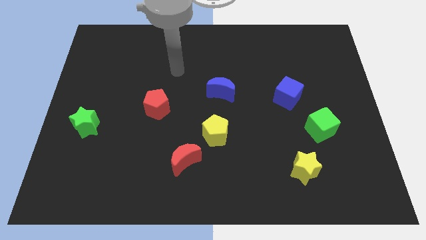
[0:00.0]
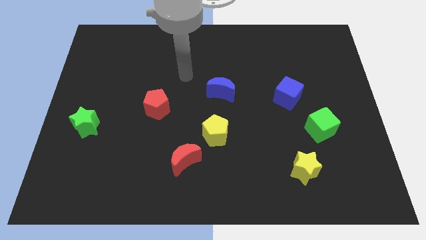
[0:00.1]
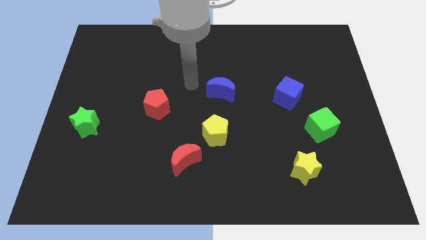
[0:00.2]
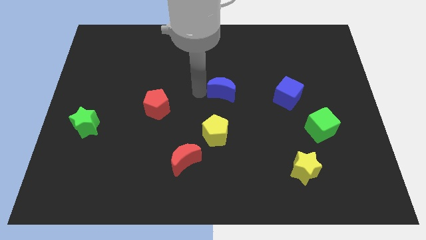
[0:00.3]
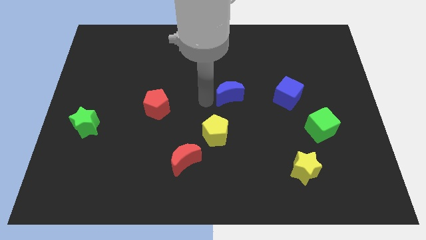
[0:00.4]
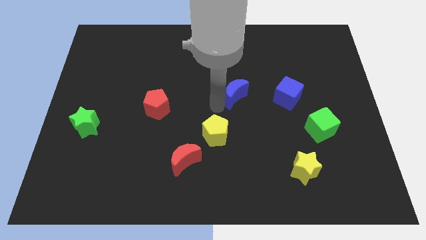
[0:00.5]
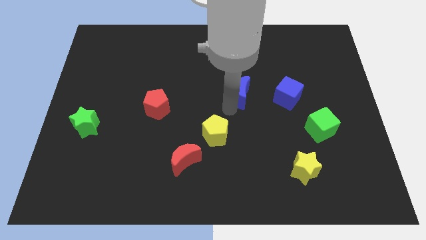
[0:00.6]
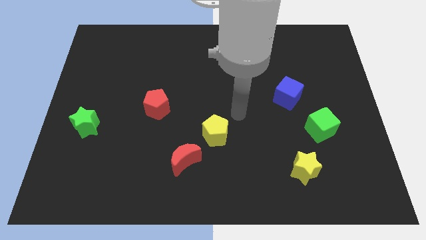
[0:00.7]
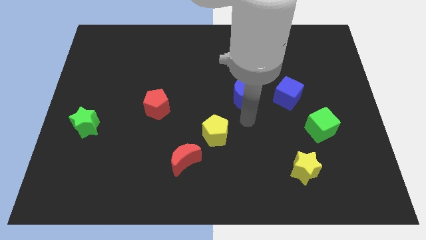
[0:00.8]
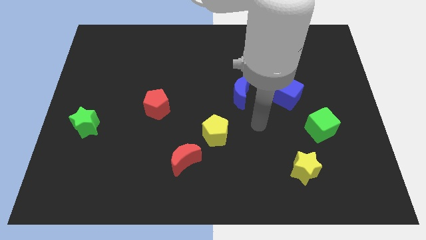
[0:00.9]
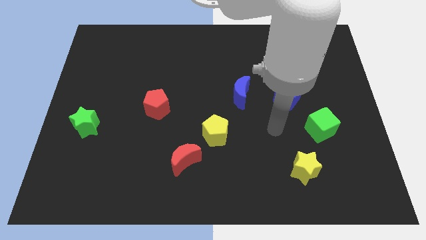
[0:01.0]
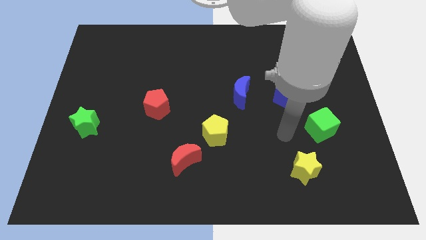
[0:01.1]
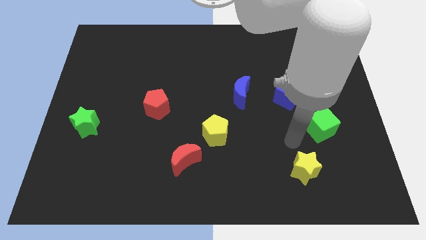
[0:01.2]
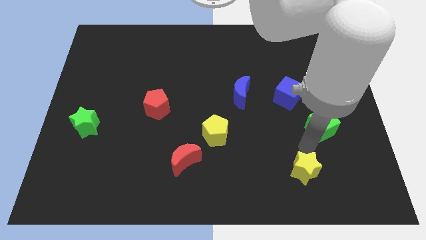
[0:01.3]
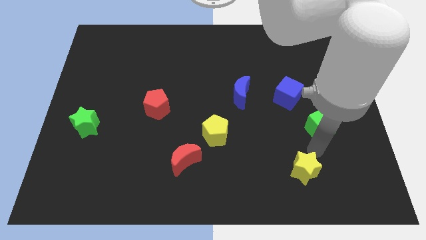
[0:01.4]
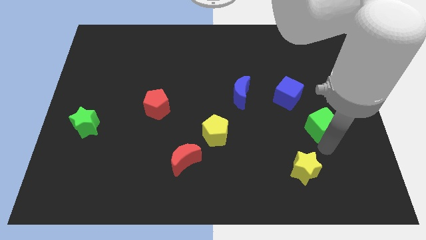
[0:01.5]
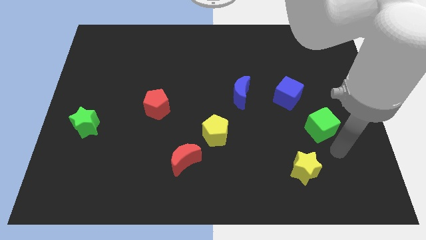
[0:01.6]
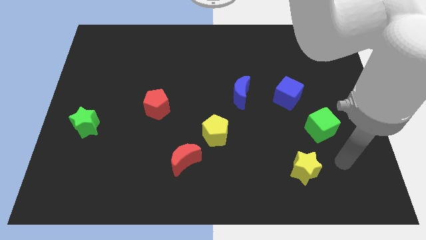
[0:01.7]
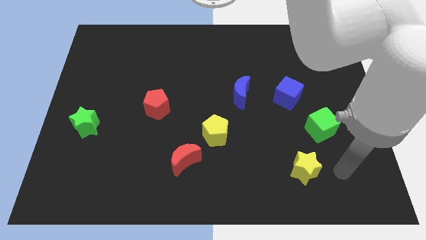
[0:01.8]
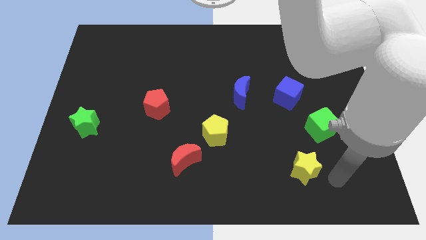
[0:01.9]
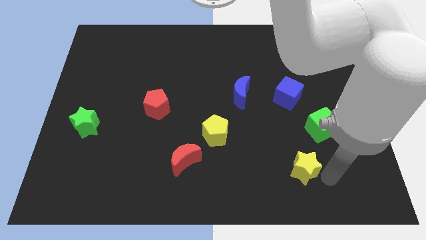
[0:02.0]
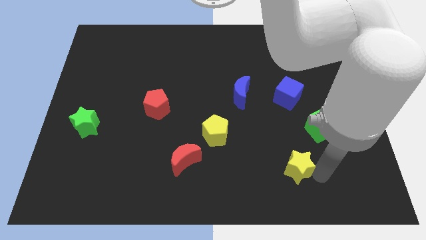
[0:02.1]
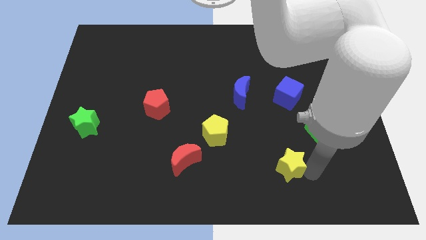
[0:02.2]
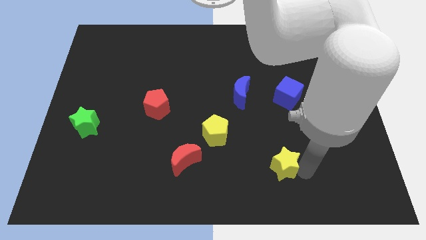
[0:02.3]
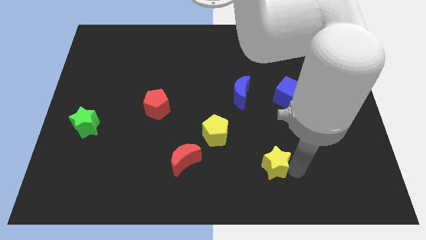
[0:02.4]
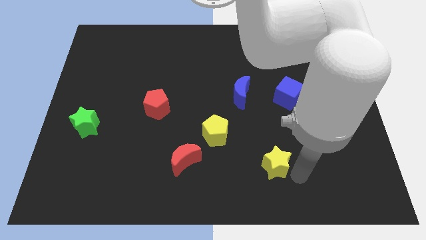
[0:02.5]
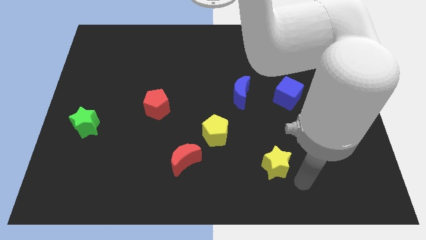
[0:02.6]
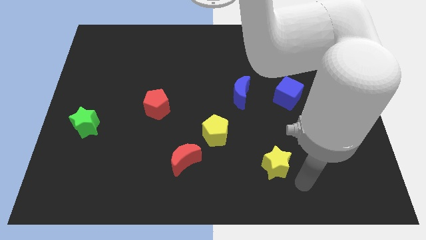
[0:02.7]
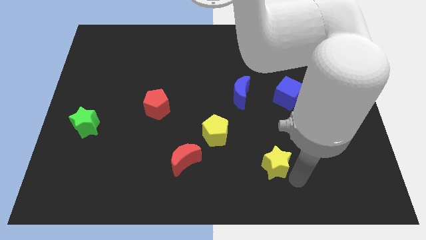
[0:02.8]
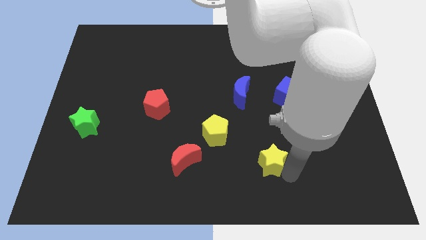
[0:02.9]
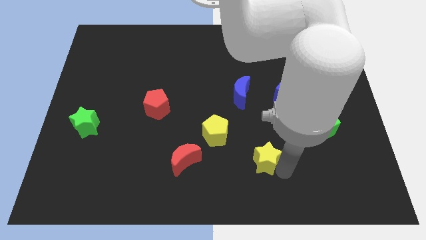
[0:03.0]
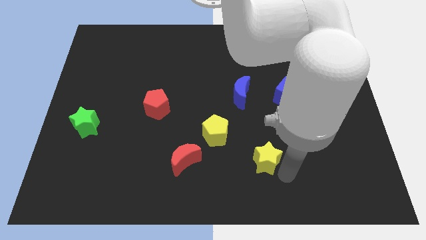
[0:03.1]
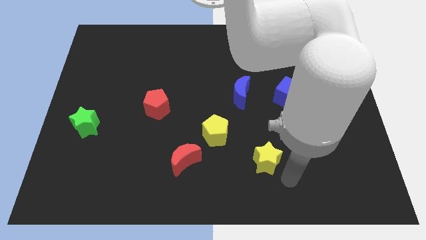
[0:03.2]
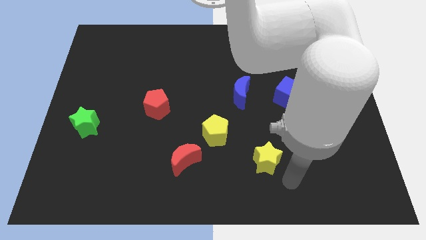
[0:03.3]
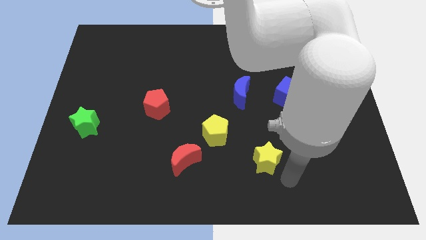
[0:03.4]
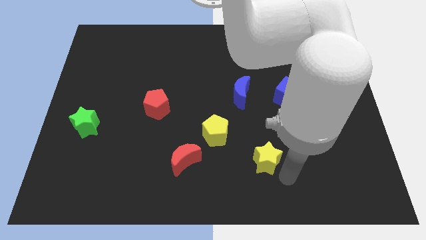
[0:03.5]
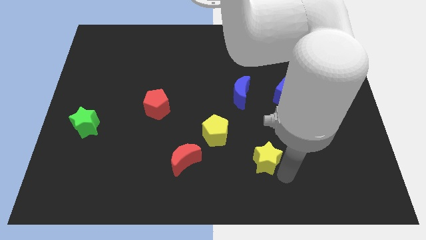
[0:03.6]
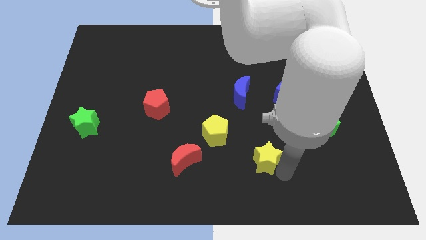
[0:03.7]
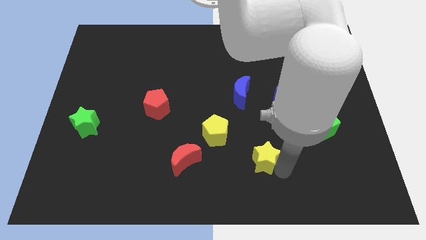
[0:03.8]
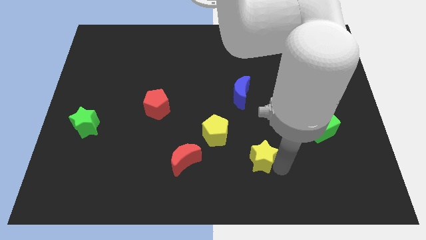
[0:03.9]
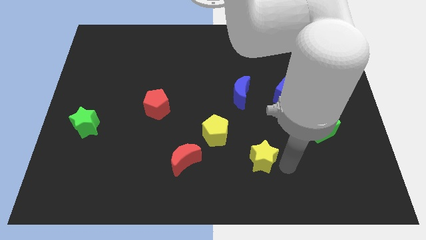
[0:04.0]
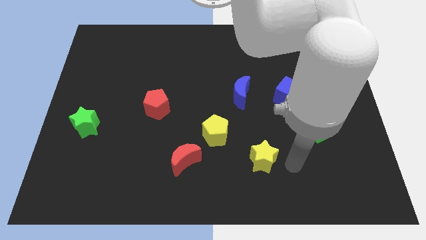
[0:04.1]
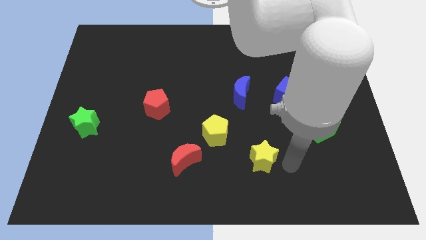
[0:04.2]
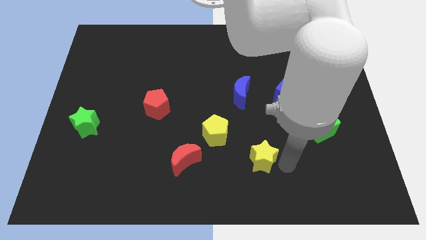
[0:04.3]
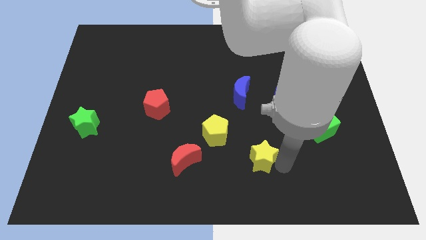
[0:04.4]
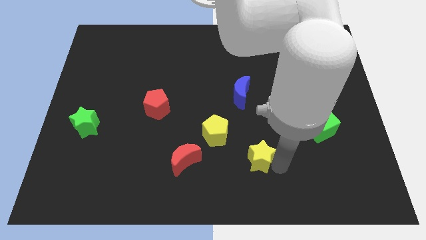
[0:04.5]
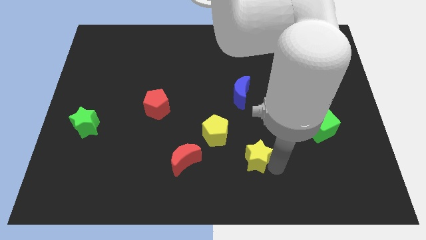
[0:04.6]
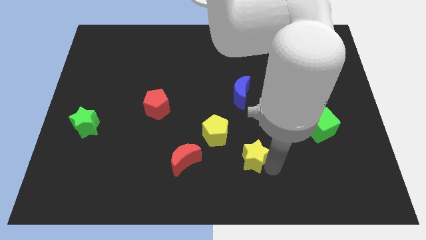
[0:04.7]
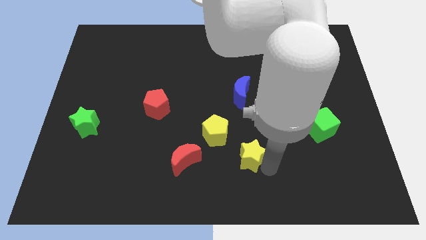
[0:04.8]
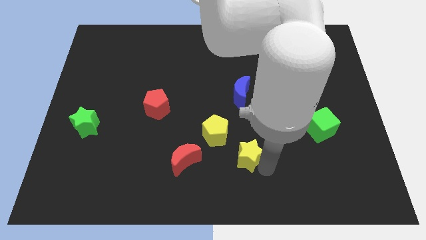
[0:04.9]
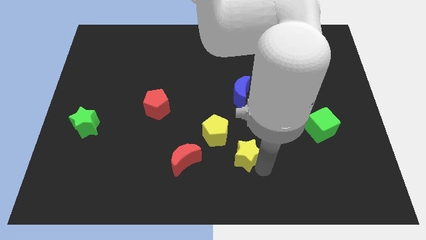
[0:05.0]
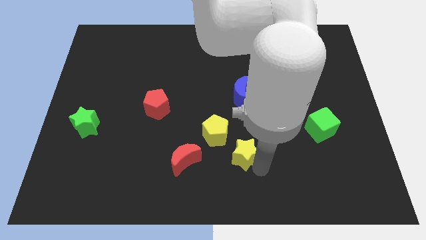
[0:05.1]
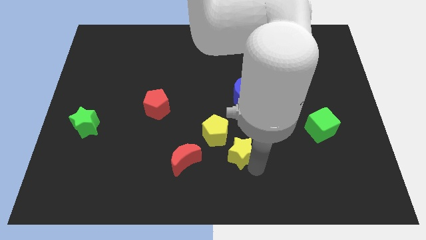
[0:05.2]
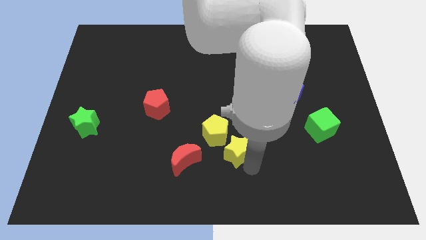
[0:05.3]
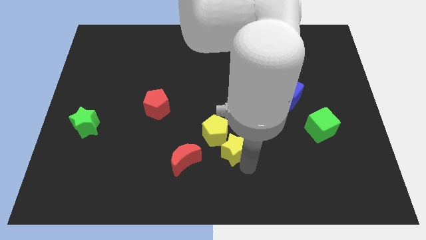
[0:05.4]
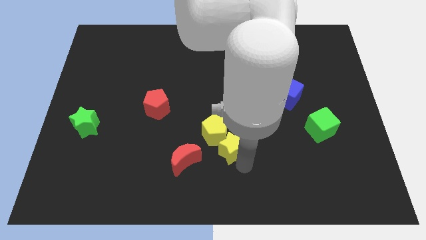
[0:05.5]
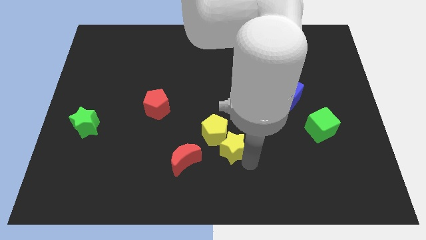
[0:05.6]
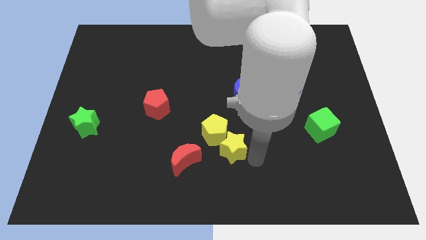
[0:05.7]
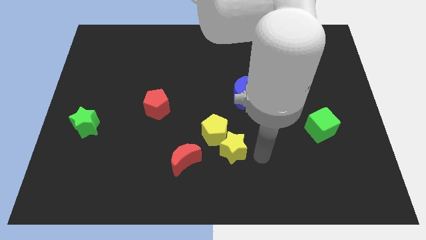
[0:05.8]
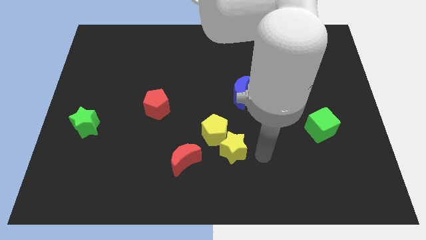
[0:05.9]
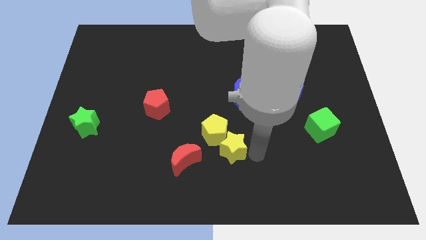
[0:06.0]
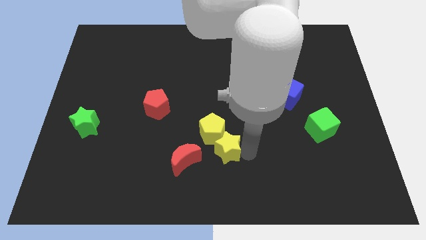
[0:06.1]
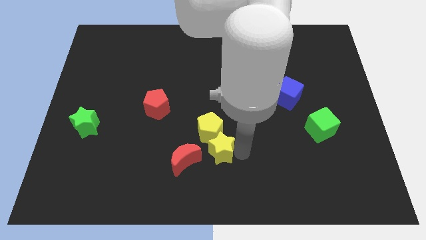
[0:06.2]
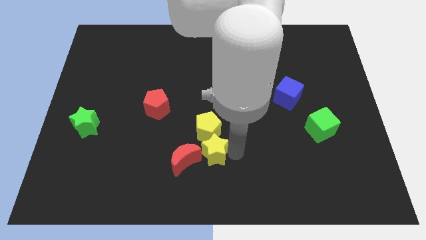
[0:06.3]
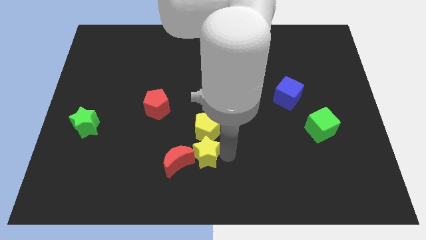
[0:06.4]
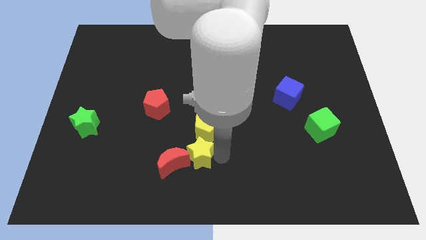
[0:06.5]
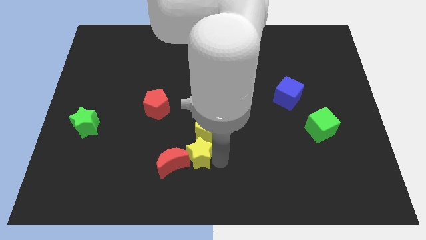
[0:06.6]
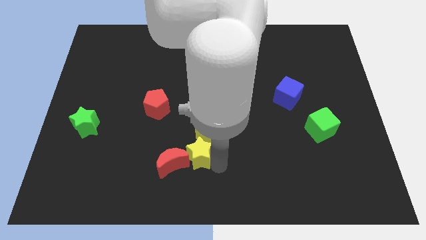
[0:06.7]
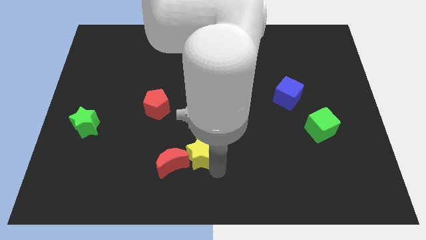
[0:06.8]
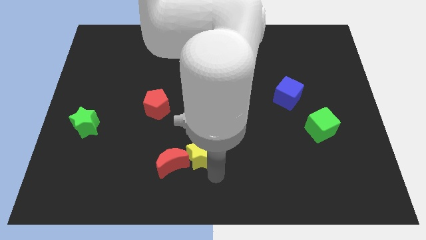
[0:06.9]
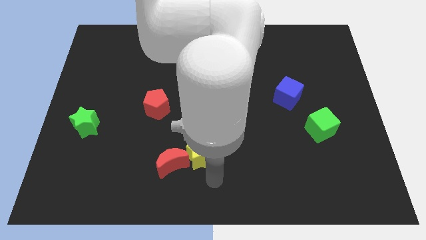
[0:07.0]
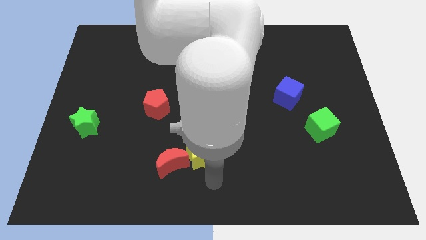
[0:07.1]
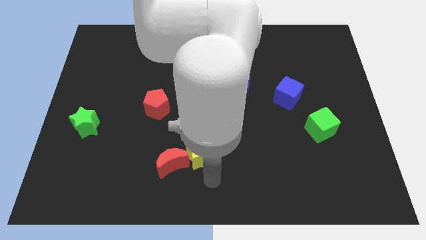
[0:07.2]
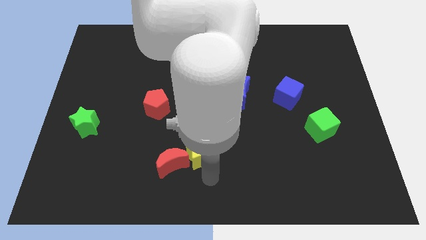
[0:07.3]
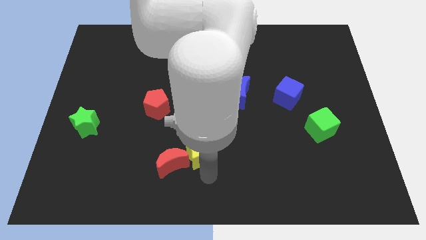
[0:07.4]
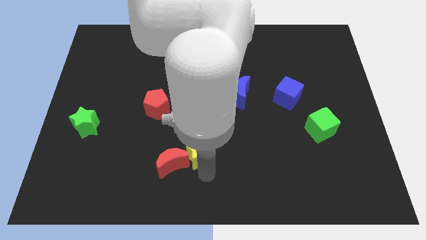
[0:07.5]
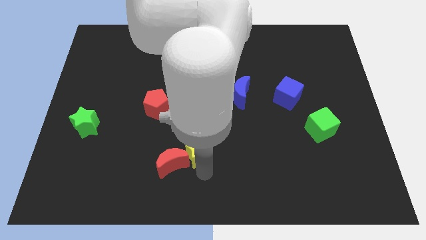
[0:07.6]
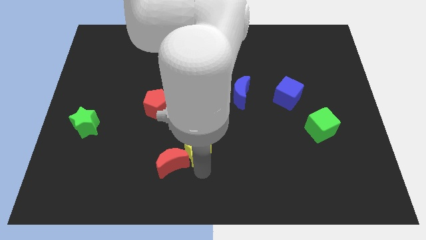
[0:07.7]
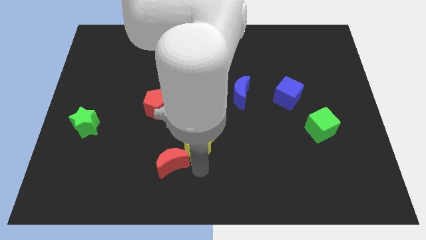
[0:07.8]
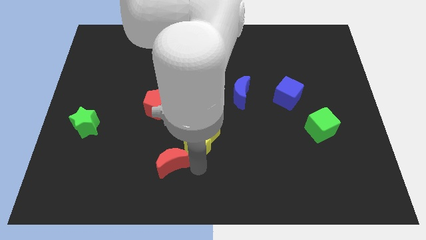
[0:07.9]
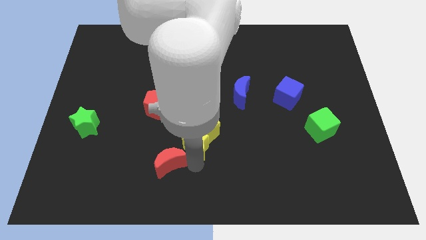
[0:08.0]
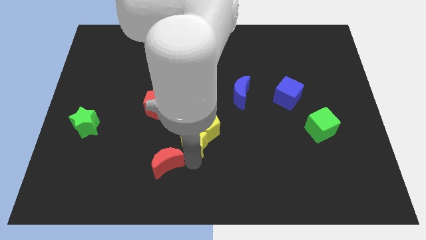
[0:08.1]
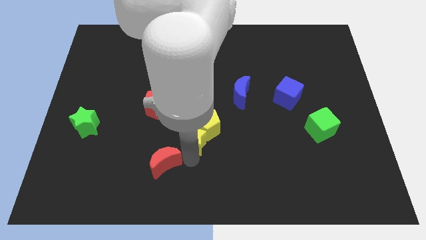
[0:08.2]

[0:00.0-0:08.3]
push the yellow star to the bottom right of the red pentagon
